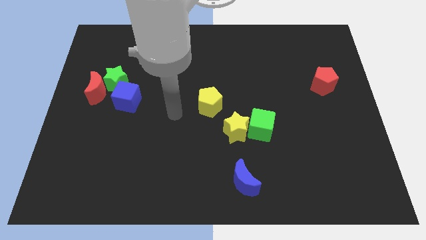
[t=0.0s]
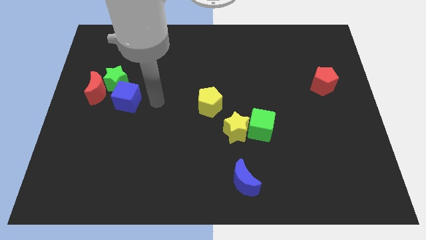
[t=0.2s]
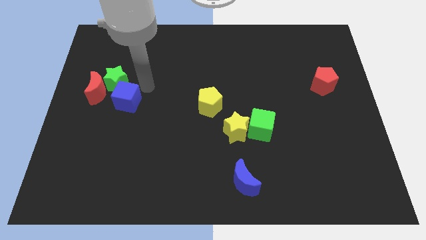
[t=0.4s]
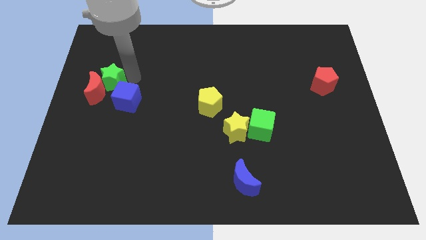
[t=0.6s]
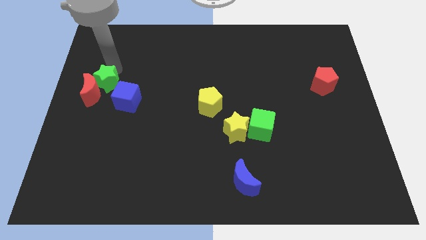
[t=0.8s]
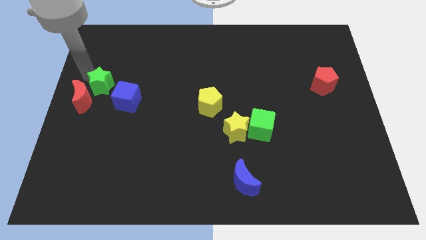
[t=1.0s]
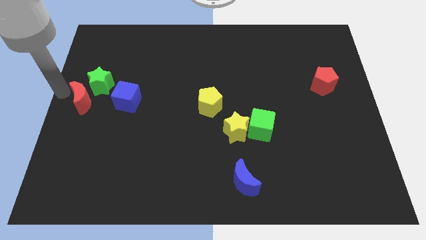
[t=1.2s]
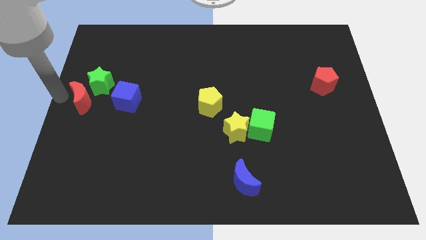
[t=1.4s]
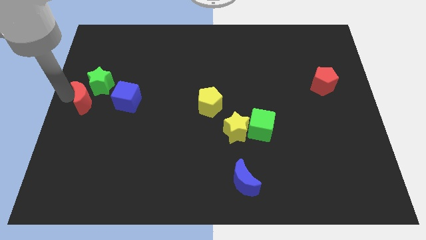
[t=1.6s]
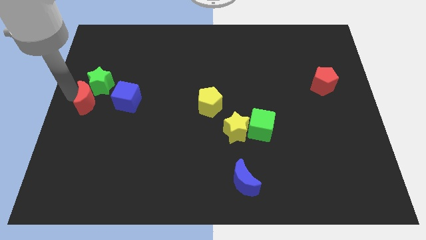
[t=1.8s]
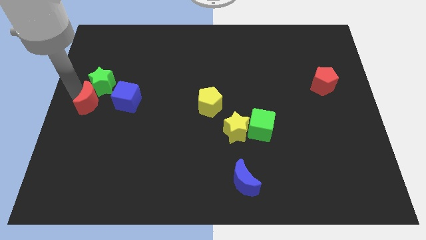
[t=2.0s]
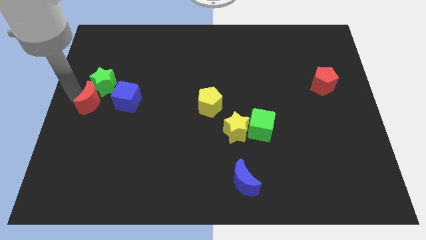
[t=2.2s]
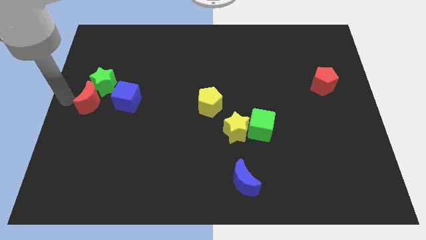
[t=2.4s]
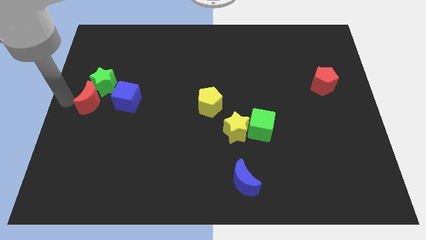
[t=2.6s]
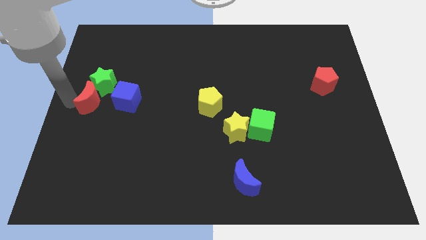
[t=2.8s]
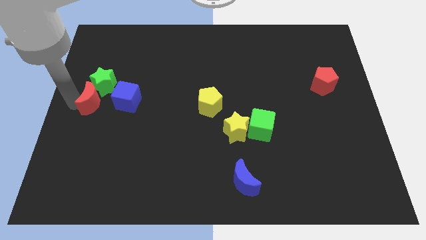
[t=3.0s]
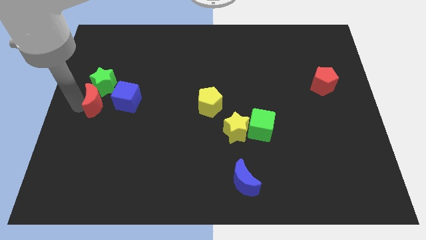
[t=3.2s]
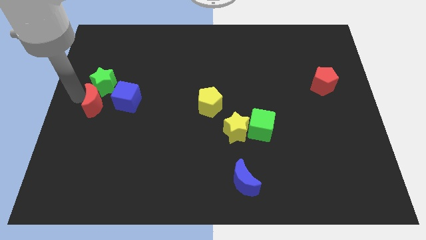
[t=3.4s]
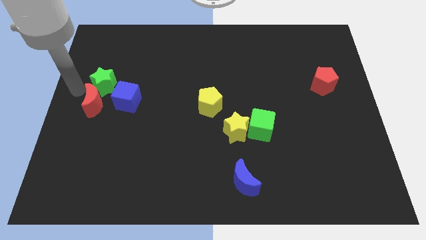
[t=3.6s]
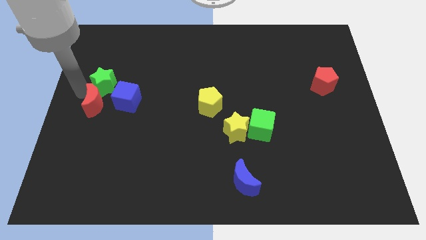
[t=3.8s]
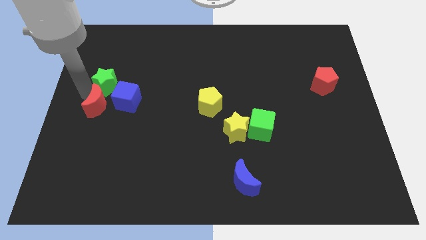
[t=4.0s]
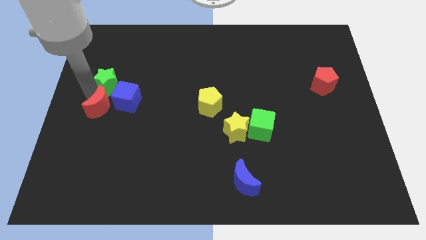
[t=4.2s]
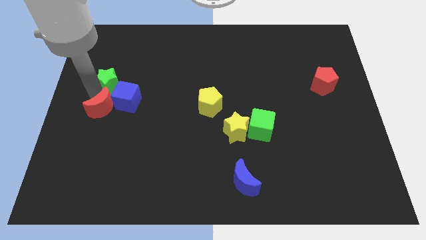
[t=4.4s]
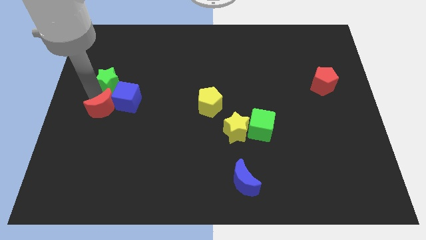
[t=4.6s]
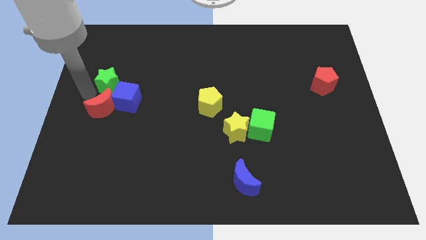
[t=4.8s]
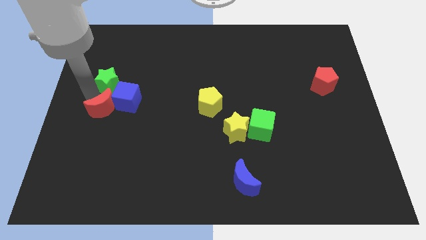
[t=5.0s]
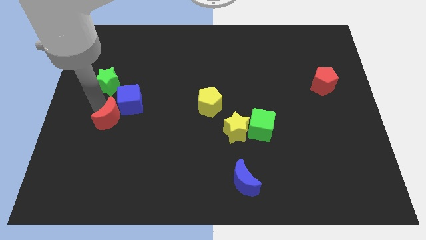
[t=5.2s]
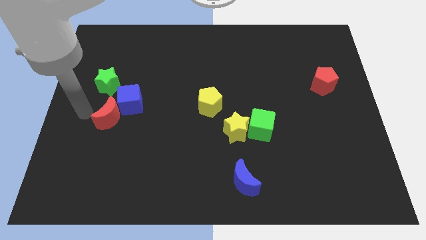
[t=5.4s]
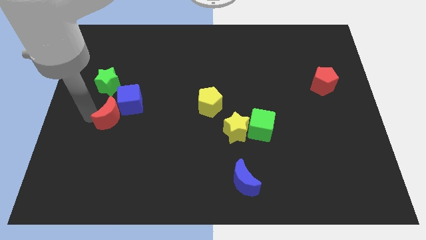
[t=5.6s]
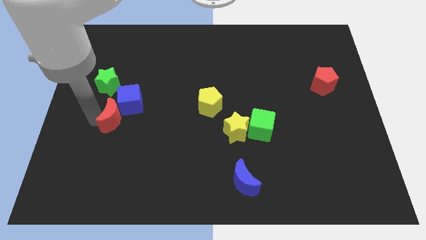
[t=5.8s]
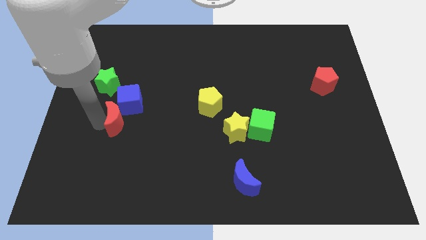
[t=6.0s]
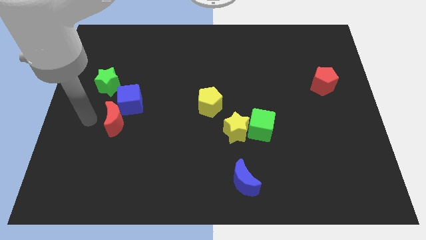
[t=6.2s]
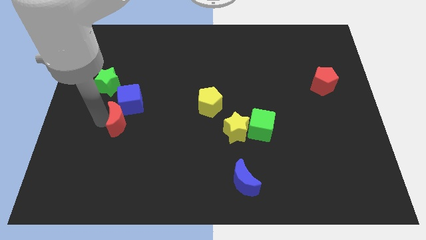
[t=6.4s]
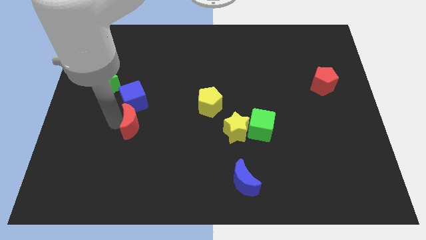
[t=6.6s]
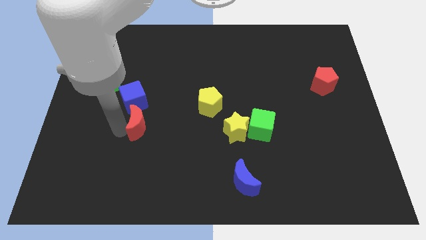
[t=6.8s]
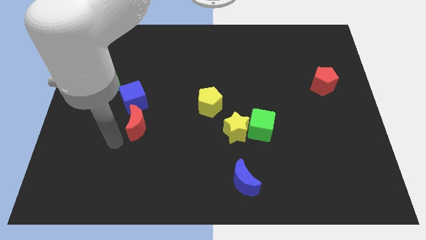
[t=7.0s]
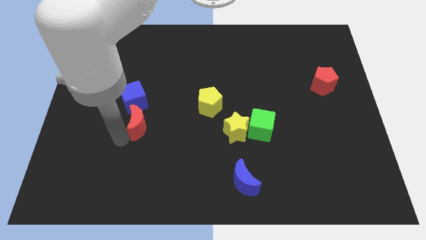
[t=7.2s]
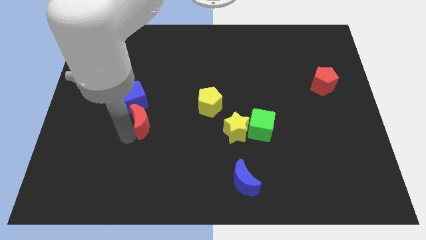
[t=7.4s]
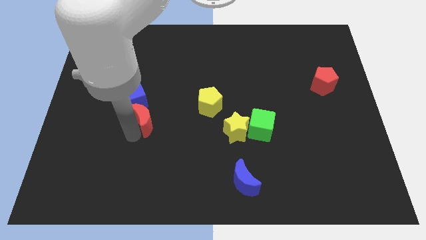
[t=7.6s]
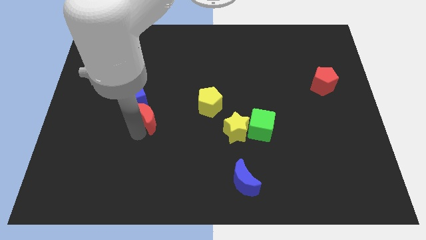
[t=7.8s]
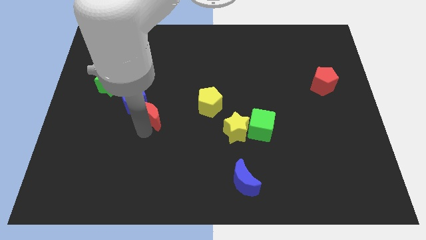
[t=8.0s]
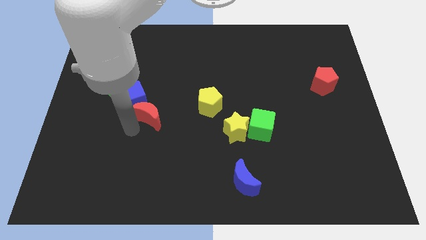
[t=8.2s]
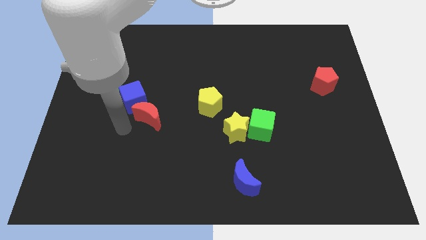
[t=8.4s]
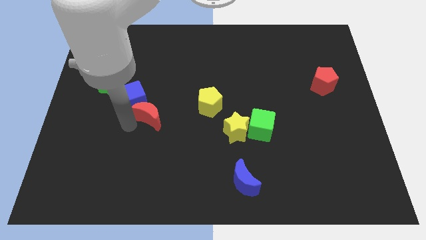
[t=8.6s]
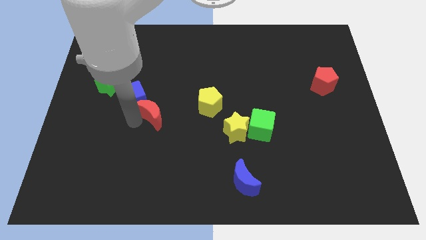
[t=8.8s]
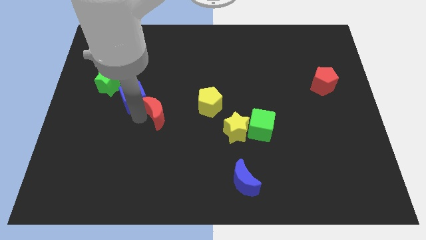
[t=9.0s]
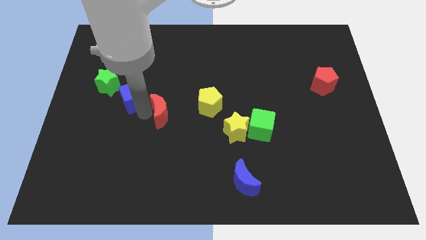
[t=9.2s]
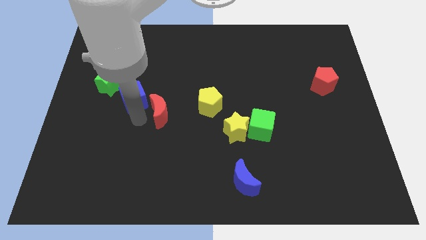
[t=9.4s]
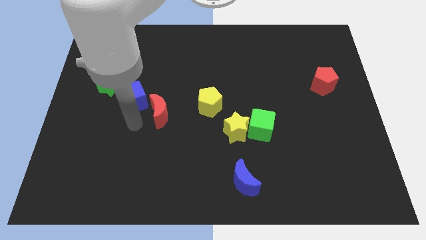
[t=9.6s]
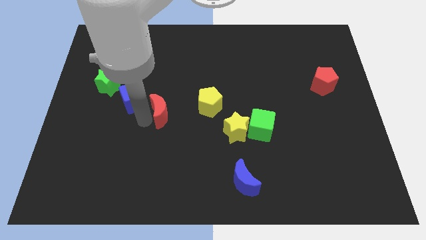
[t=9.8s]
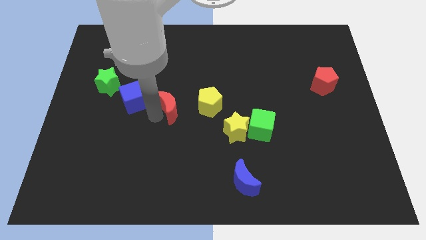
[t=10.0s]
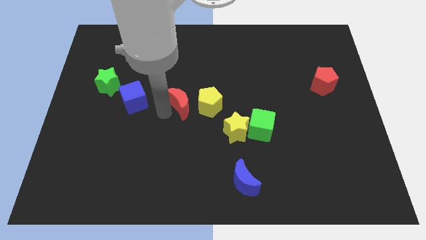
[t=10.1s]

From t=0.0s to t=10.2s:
push the red moon to the right

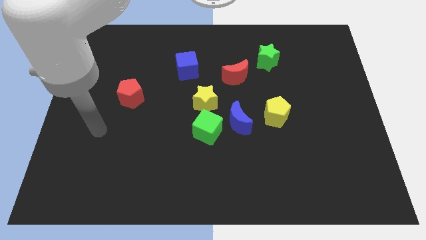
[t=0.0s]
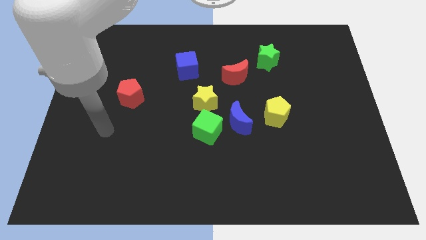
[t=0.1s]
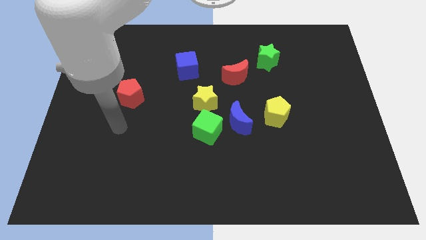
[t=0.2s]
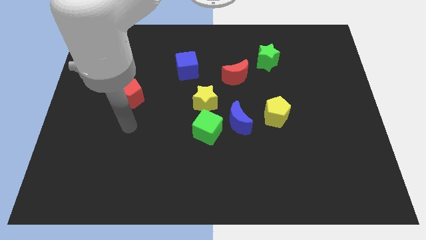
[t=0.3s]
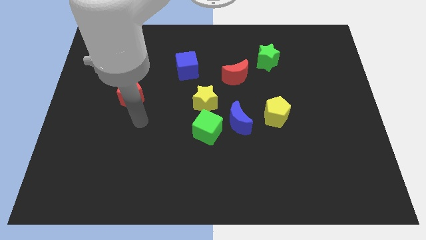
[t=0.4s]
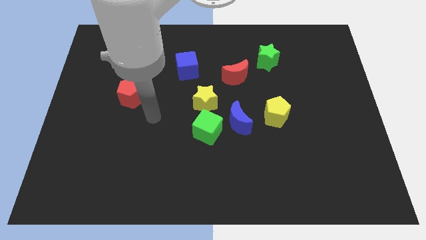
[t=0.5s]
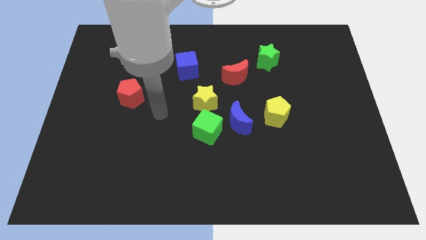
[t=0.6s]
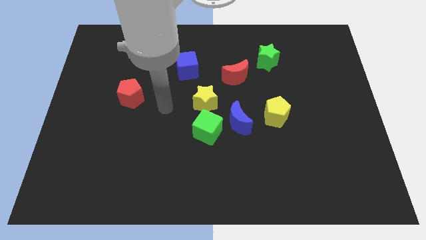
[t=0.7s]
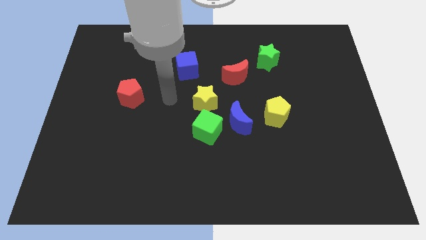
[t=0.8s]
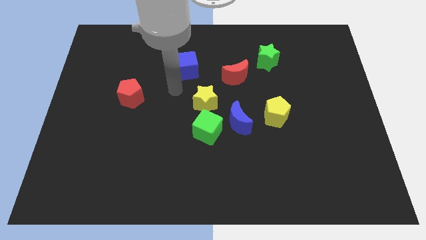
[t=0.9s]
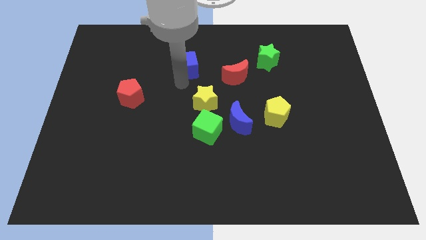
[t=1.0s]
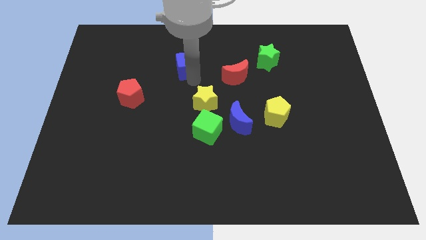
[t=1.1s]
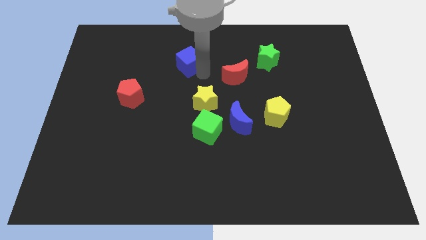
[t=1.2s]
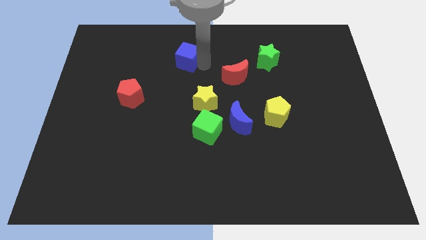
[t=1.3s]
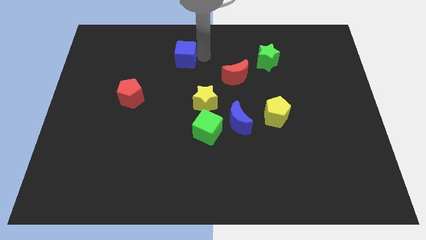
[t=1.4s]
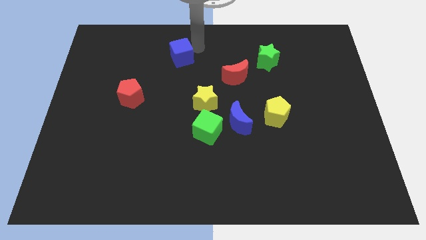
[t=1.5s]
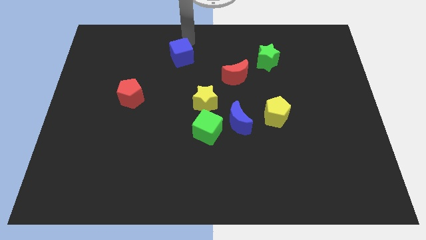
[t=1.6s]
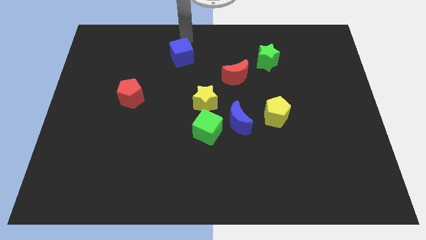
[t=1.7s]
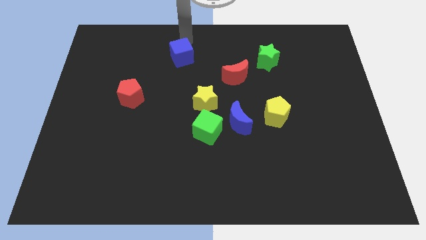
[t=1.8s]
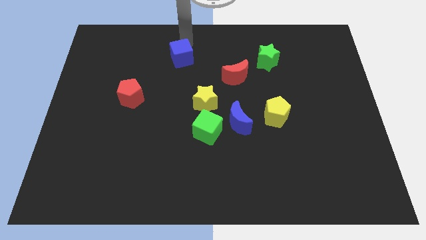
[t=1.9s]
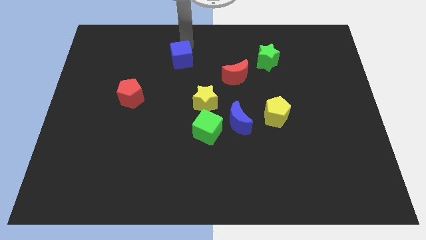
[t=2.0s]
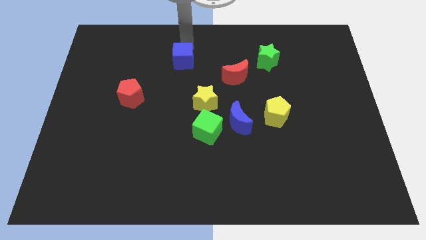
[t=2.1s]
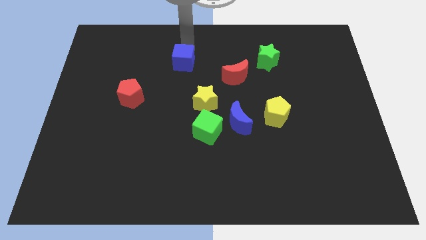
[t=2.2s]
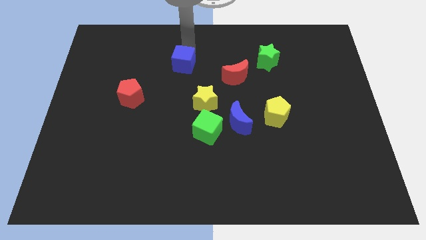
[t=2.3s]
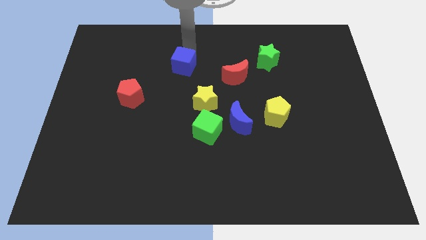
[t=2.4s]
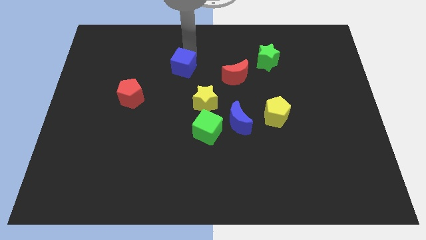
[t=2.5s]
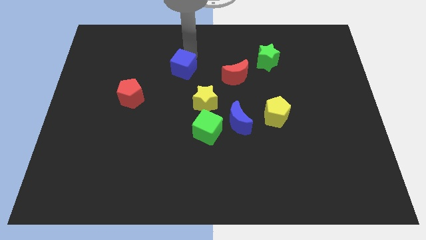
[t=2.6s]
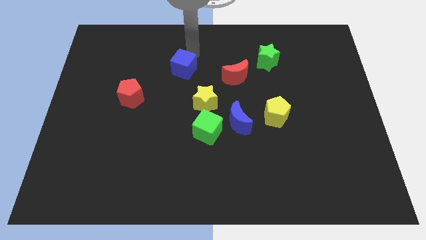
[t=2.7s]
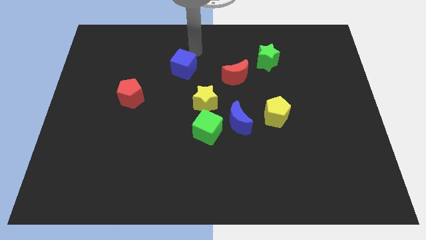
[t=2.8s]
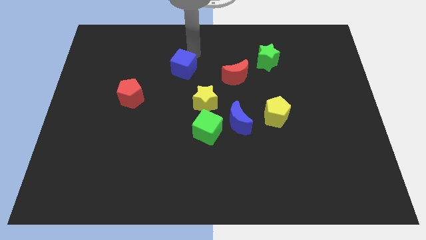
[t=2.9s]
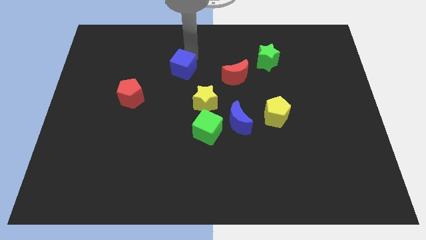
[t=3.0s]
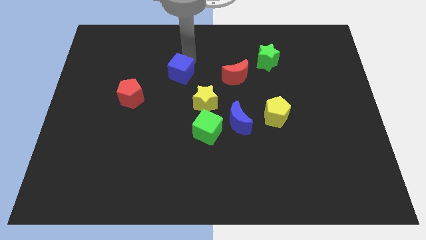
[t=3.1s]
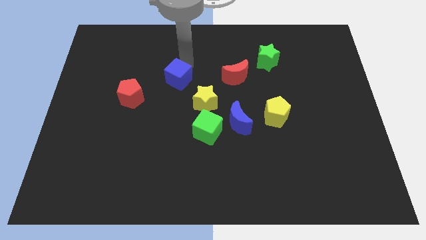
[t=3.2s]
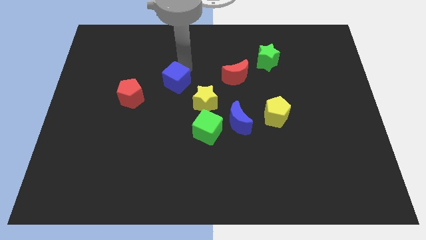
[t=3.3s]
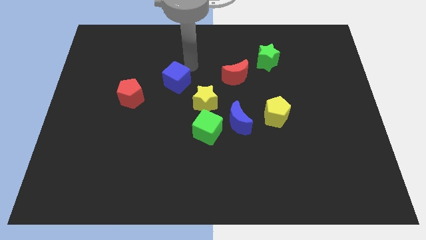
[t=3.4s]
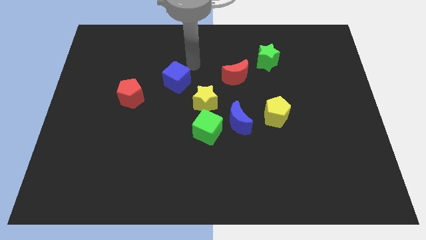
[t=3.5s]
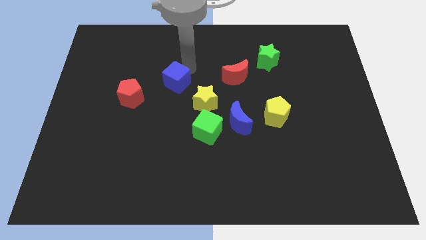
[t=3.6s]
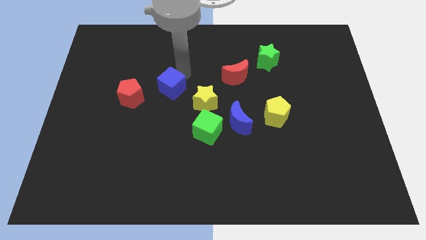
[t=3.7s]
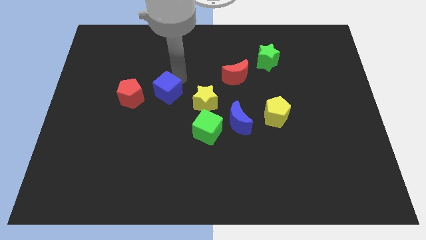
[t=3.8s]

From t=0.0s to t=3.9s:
slide the blue cube a little downwards and then to the left
